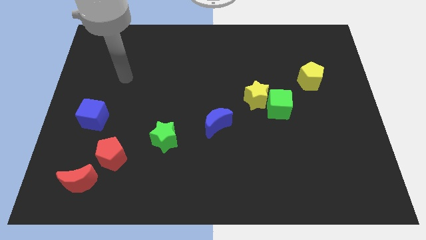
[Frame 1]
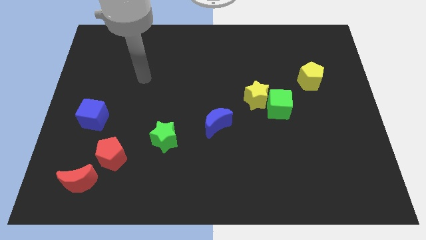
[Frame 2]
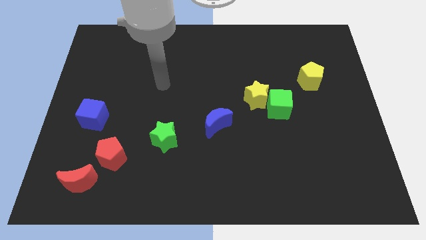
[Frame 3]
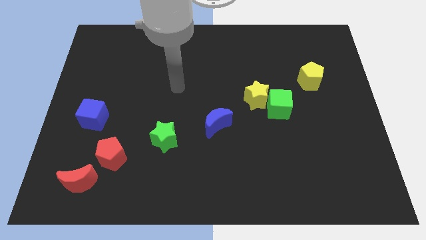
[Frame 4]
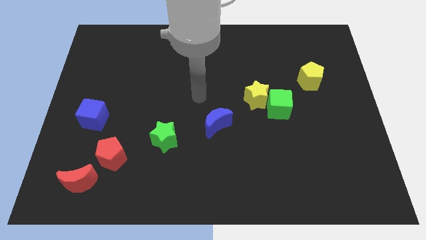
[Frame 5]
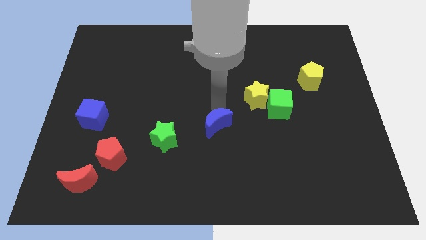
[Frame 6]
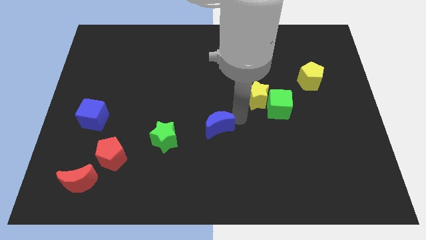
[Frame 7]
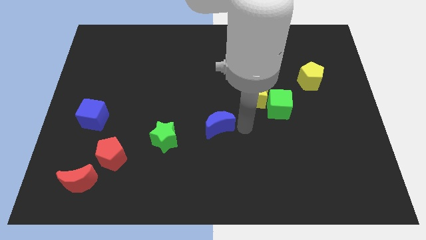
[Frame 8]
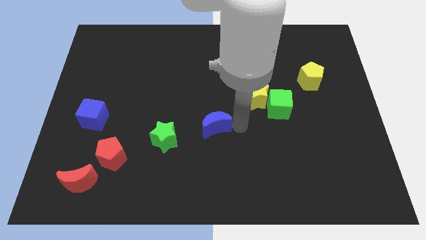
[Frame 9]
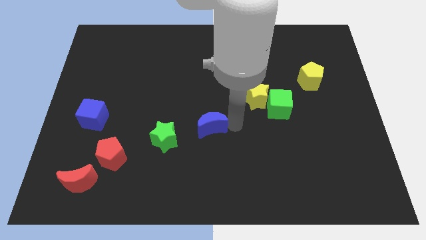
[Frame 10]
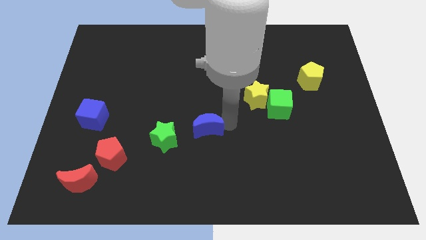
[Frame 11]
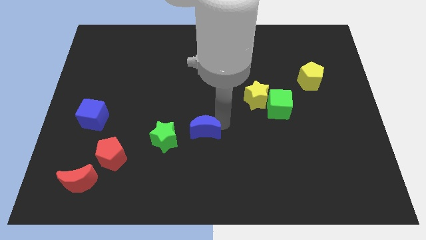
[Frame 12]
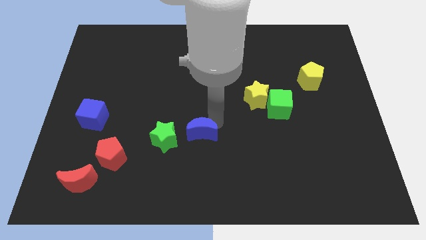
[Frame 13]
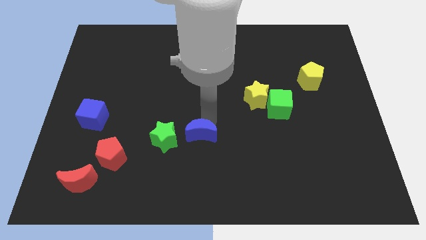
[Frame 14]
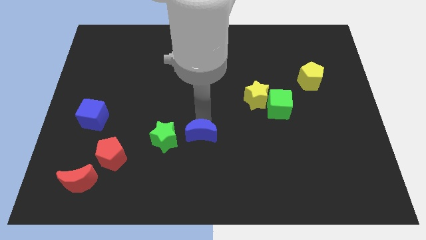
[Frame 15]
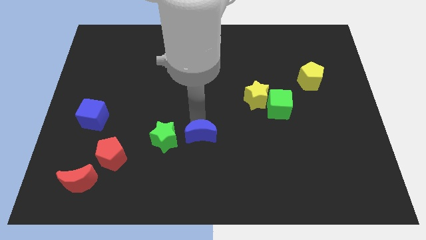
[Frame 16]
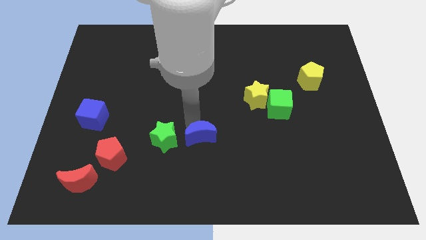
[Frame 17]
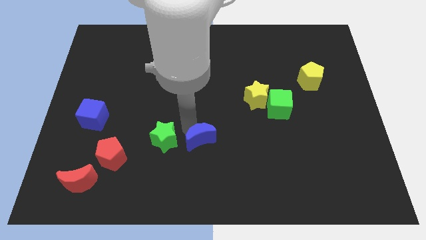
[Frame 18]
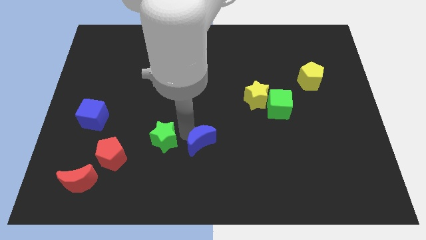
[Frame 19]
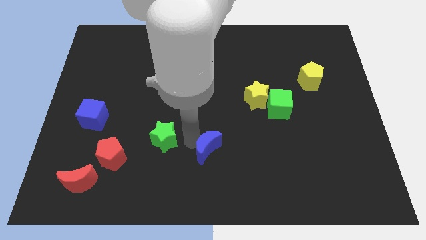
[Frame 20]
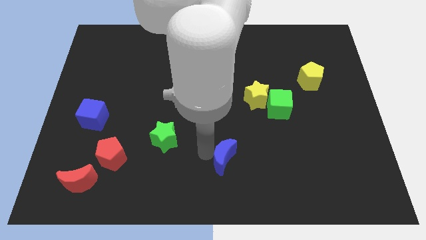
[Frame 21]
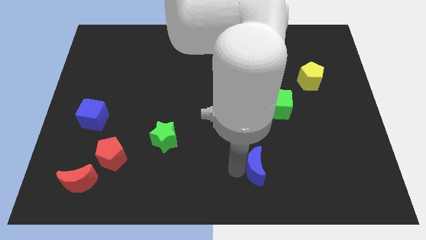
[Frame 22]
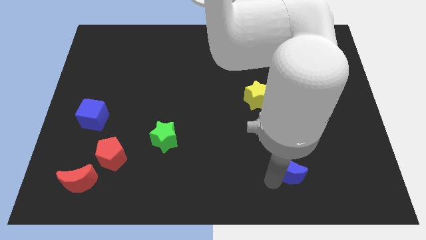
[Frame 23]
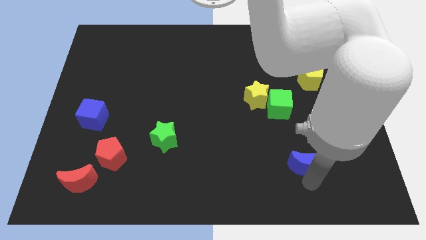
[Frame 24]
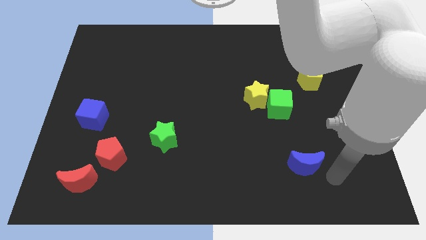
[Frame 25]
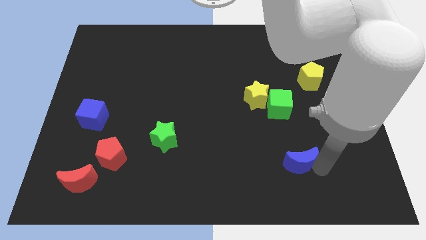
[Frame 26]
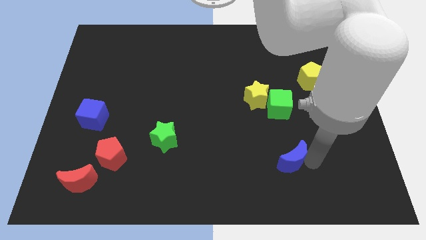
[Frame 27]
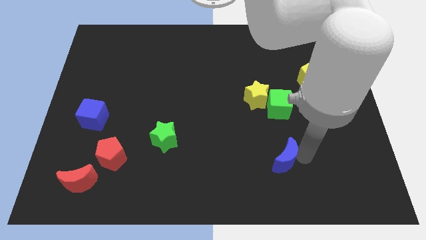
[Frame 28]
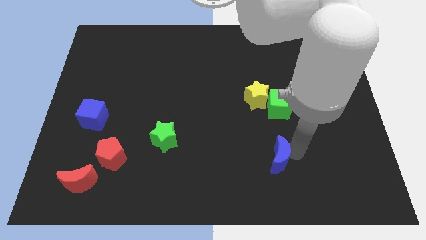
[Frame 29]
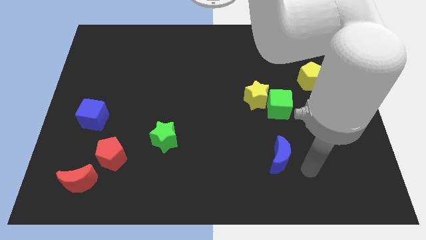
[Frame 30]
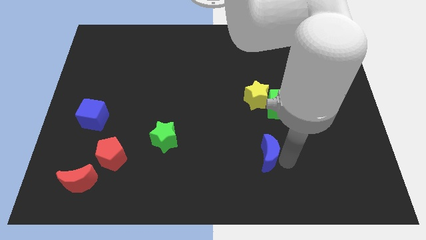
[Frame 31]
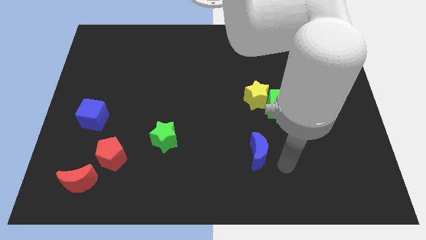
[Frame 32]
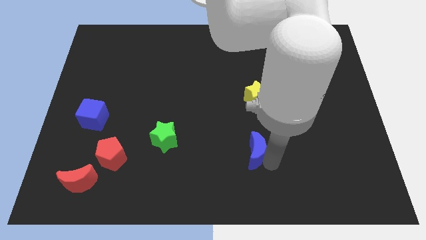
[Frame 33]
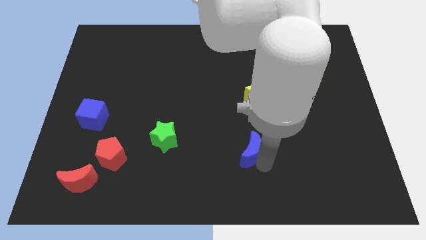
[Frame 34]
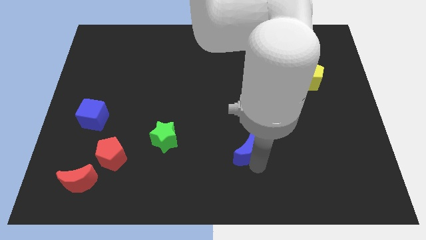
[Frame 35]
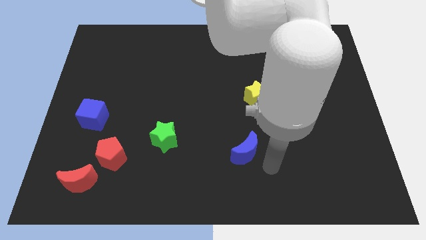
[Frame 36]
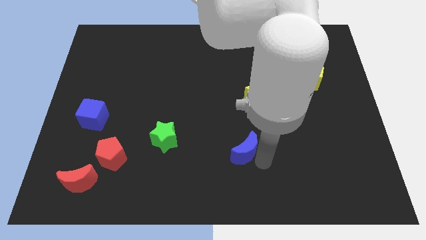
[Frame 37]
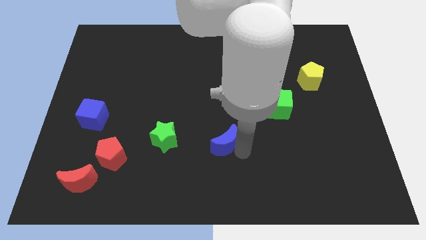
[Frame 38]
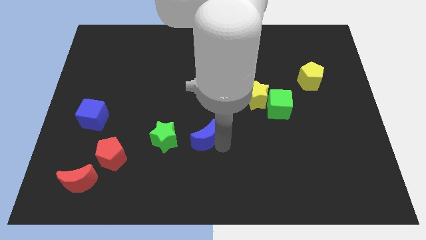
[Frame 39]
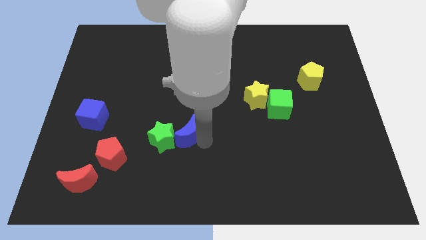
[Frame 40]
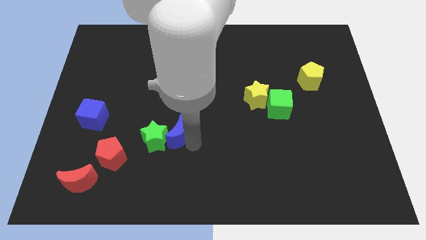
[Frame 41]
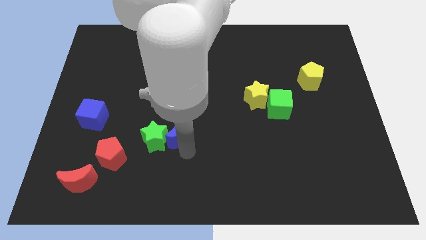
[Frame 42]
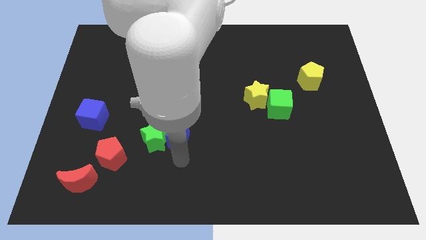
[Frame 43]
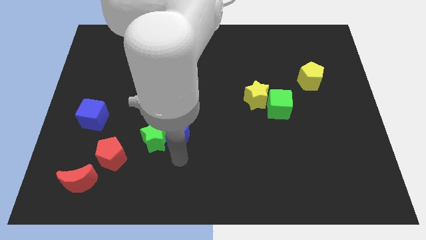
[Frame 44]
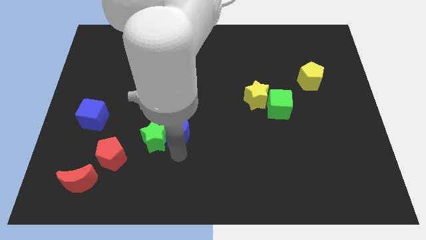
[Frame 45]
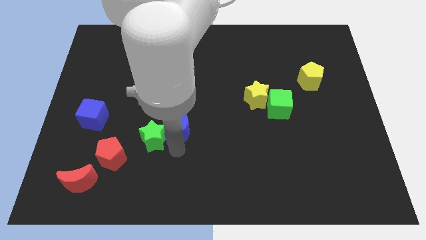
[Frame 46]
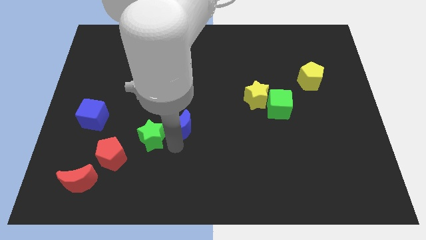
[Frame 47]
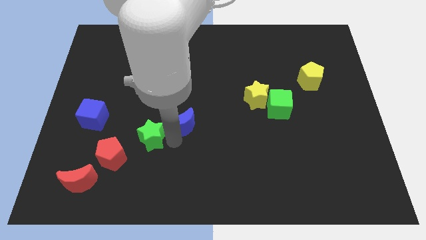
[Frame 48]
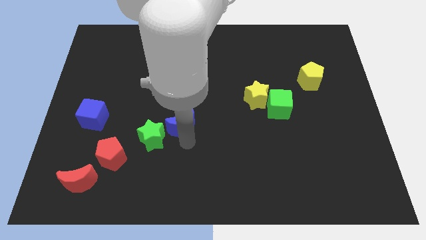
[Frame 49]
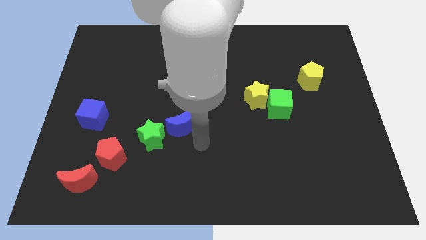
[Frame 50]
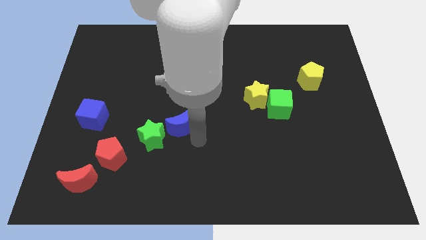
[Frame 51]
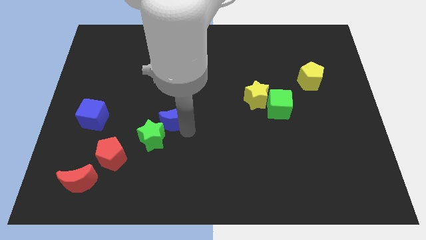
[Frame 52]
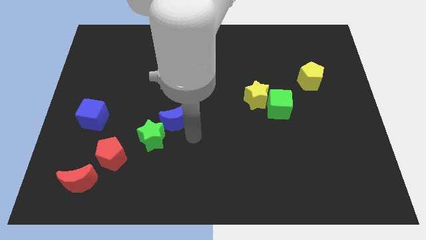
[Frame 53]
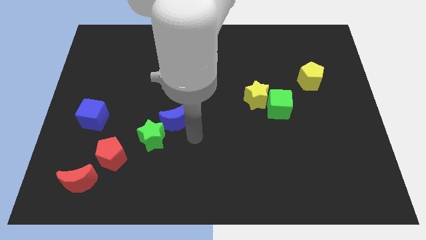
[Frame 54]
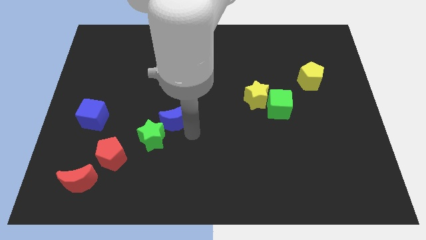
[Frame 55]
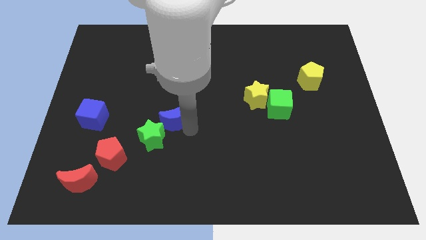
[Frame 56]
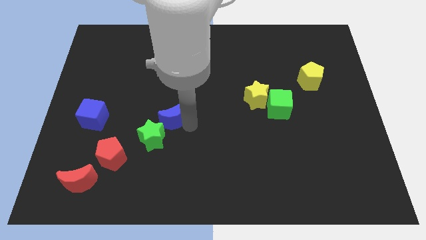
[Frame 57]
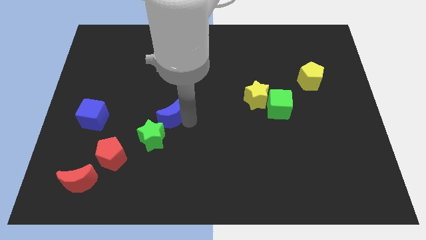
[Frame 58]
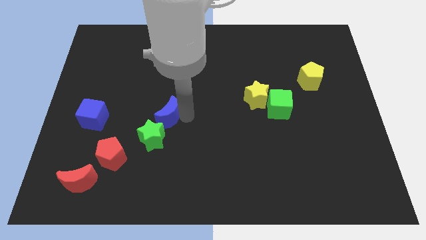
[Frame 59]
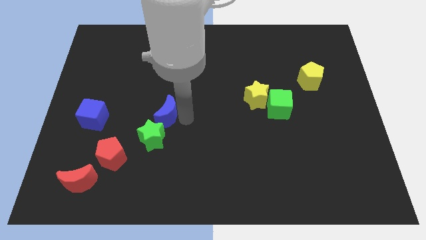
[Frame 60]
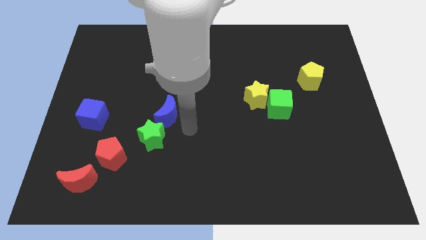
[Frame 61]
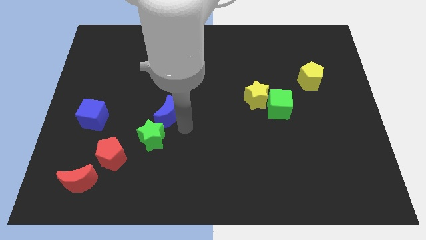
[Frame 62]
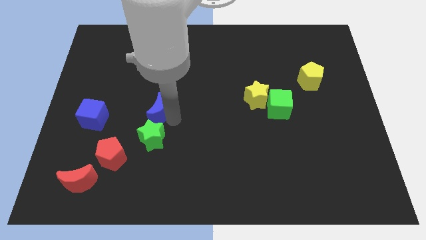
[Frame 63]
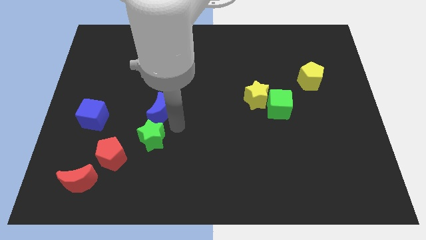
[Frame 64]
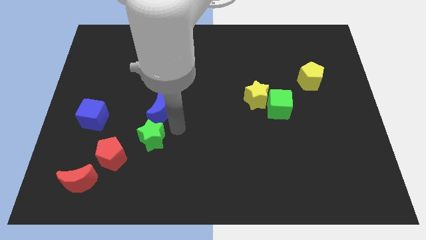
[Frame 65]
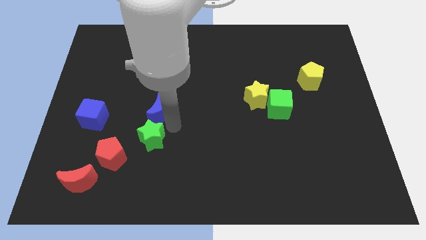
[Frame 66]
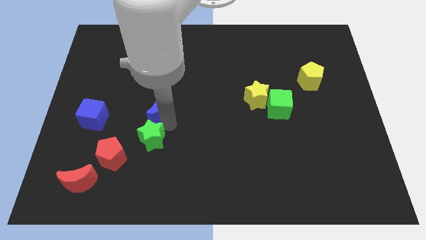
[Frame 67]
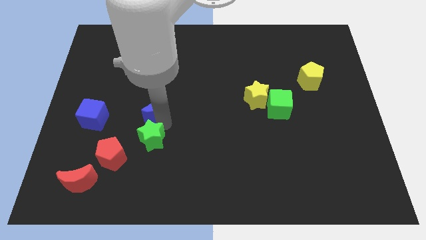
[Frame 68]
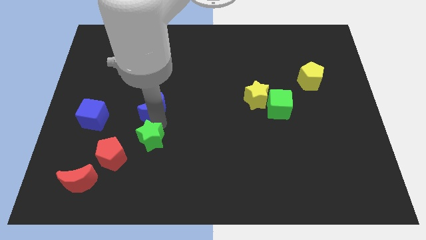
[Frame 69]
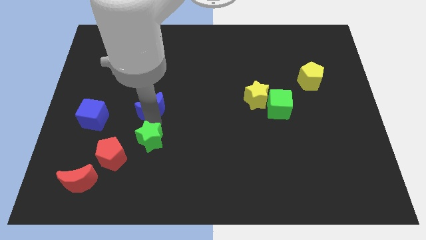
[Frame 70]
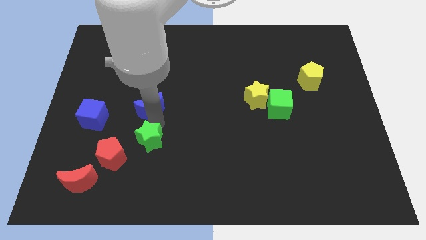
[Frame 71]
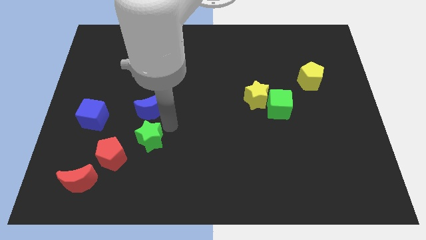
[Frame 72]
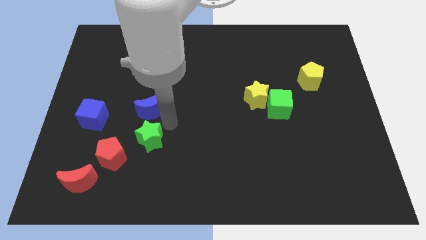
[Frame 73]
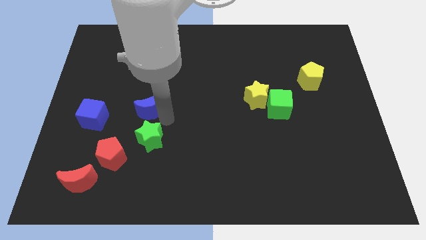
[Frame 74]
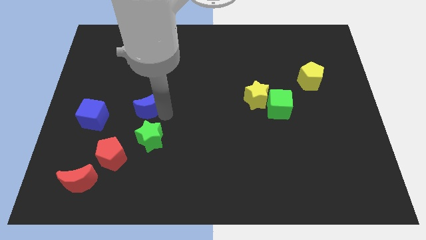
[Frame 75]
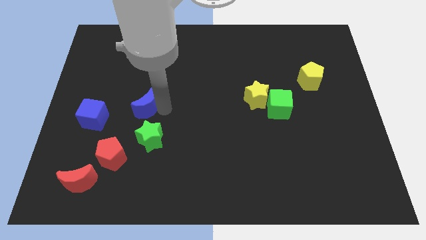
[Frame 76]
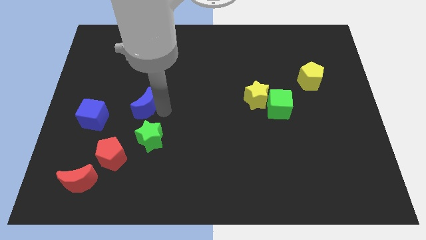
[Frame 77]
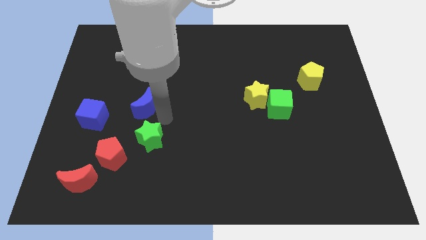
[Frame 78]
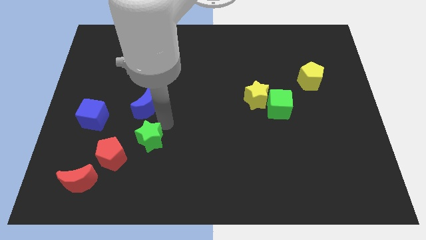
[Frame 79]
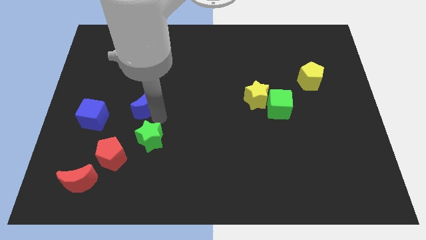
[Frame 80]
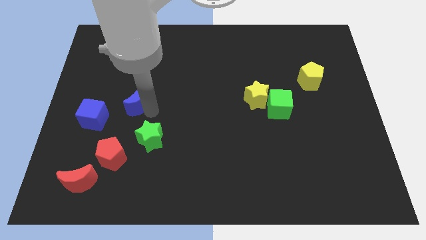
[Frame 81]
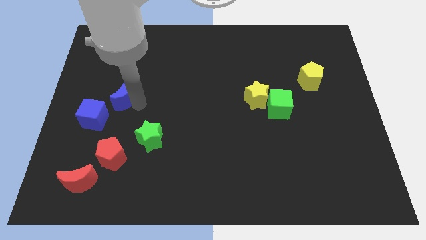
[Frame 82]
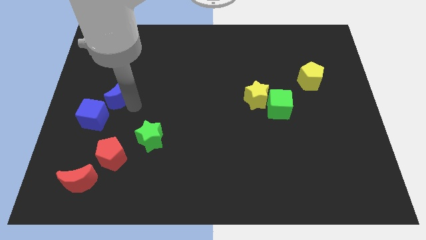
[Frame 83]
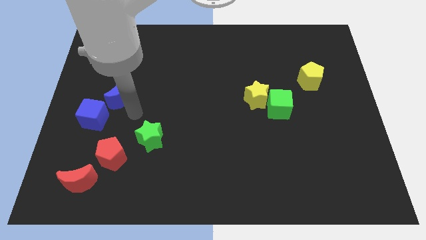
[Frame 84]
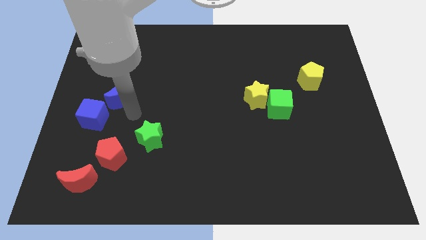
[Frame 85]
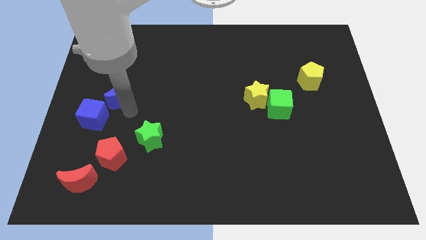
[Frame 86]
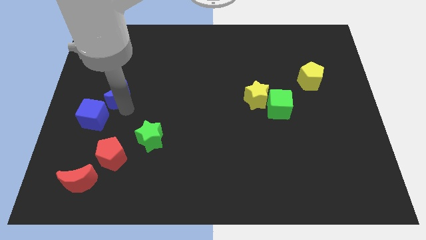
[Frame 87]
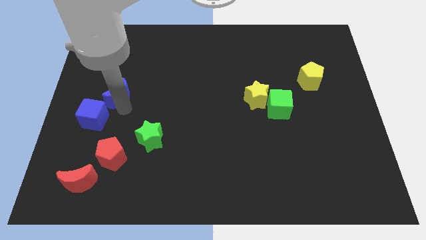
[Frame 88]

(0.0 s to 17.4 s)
push the blue moon to the top of the blue cube
